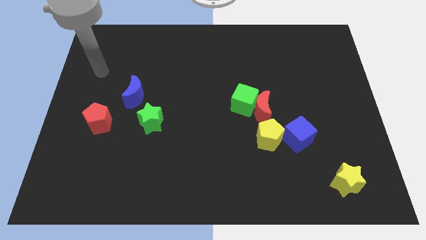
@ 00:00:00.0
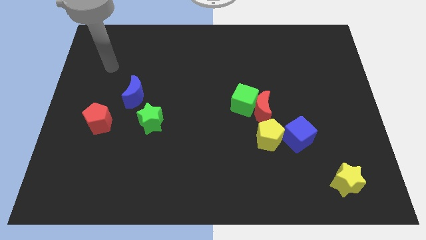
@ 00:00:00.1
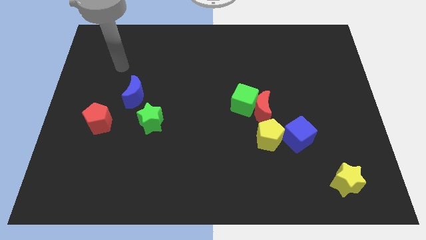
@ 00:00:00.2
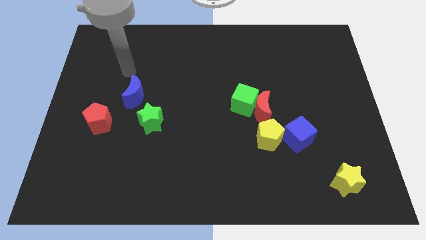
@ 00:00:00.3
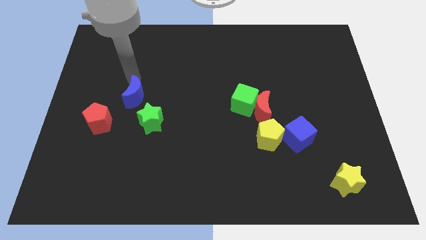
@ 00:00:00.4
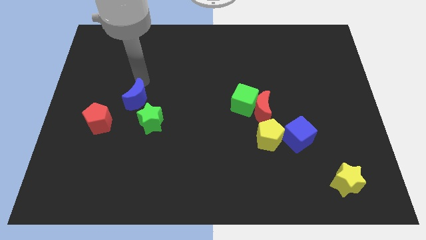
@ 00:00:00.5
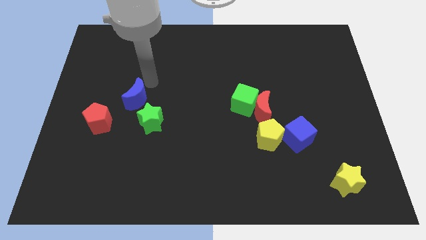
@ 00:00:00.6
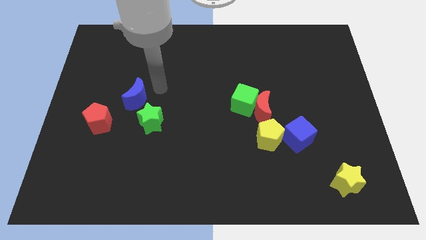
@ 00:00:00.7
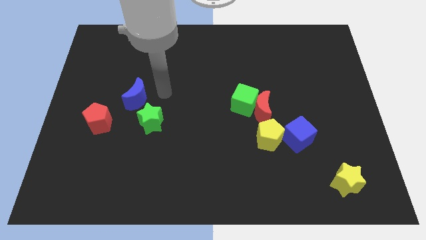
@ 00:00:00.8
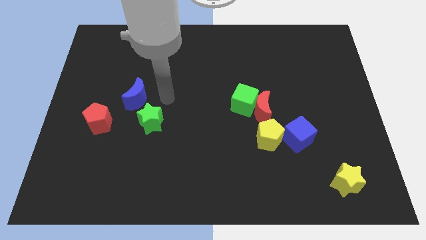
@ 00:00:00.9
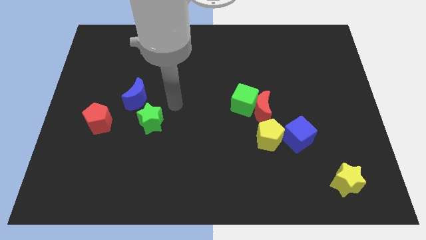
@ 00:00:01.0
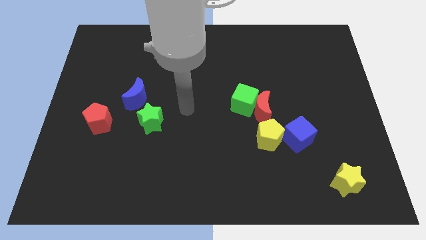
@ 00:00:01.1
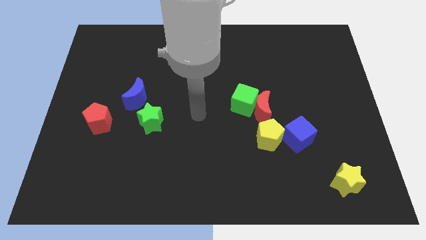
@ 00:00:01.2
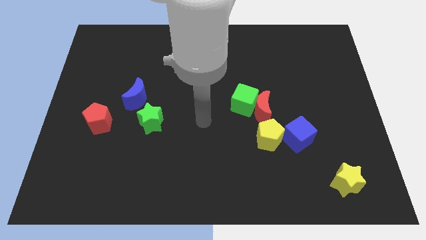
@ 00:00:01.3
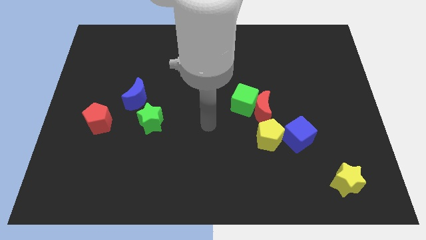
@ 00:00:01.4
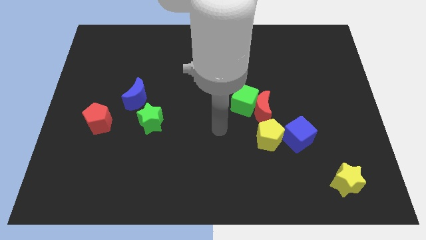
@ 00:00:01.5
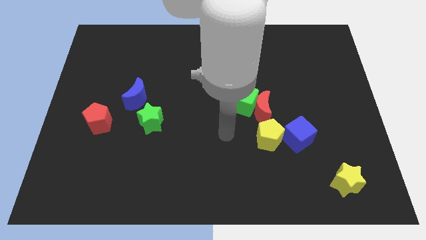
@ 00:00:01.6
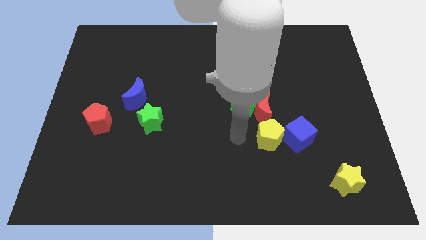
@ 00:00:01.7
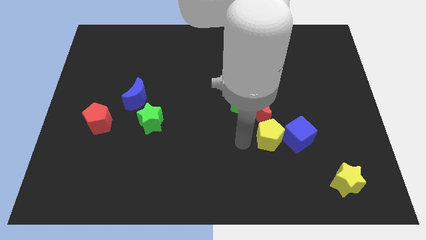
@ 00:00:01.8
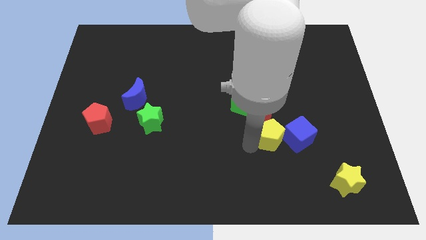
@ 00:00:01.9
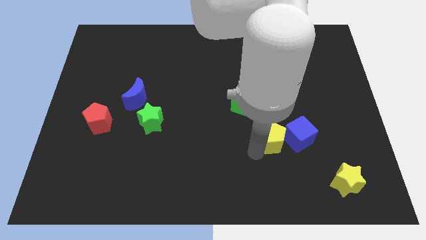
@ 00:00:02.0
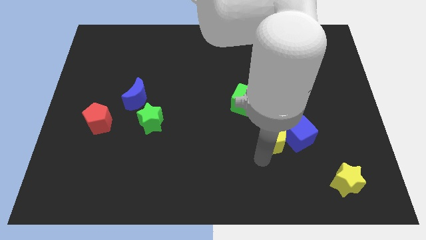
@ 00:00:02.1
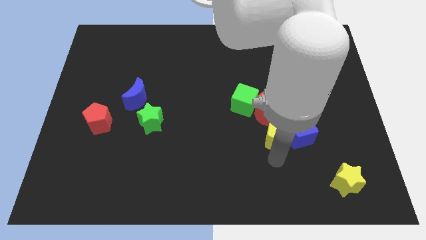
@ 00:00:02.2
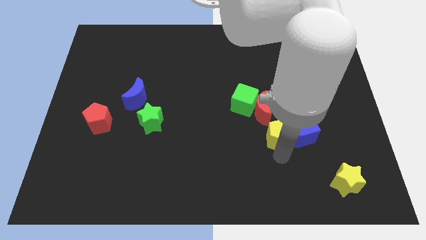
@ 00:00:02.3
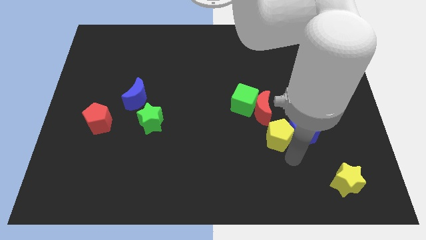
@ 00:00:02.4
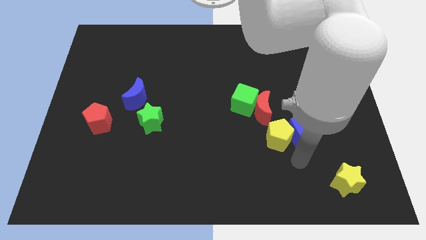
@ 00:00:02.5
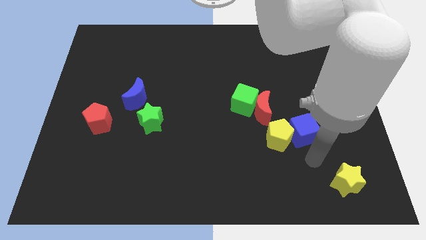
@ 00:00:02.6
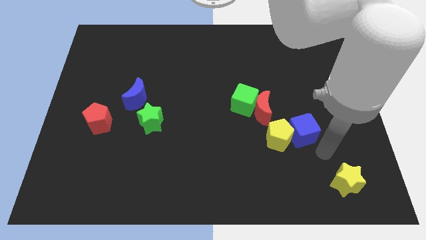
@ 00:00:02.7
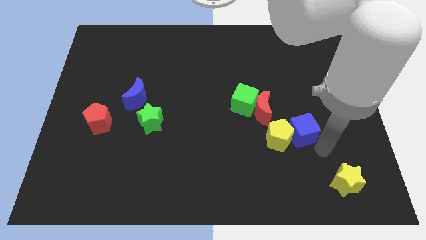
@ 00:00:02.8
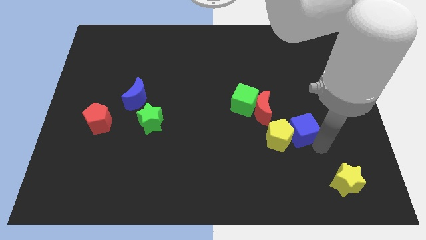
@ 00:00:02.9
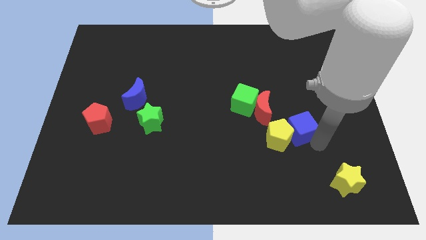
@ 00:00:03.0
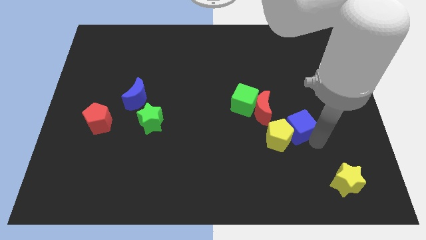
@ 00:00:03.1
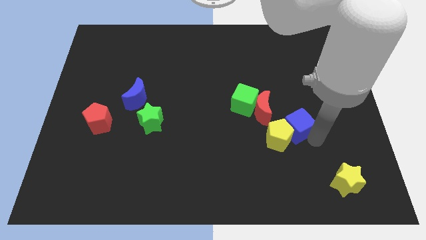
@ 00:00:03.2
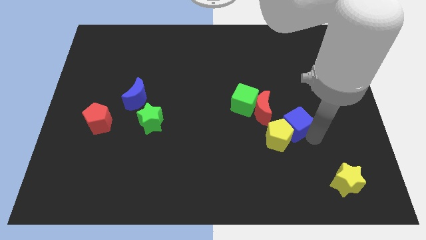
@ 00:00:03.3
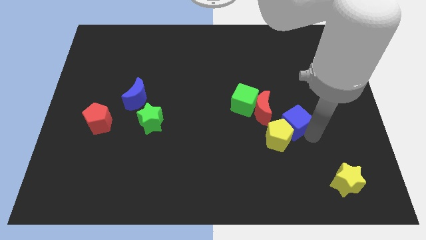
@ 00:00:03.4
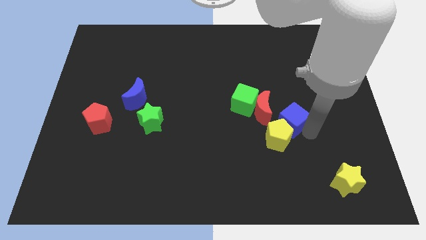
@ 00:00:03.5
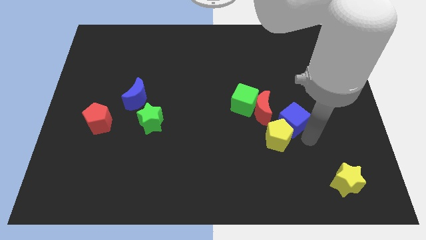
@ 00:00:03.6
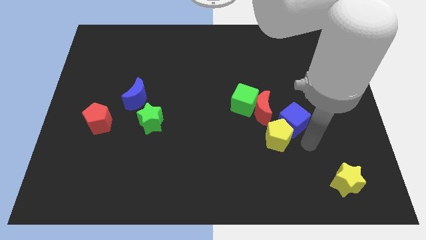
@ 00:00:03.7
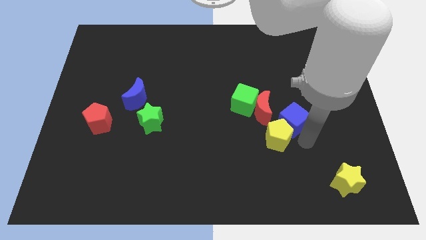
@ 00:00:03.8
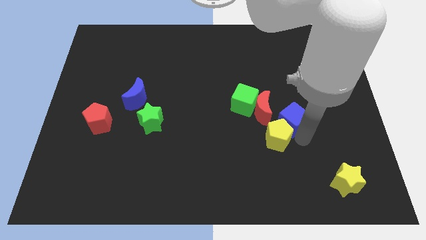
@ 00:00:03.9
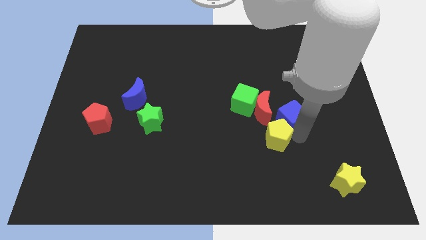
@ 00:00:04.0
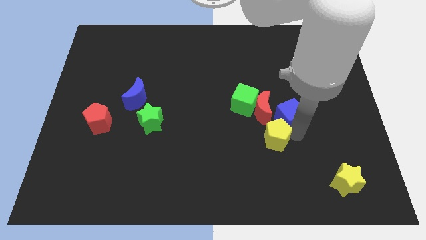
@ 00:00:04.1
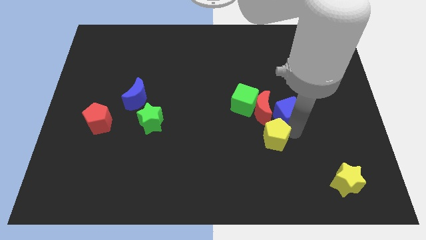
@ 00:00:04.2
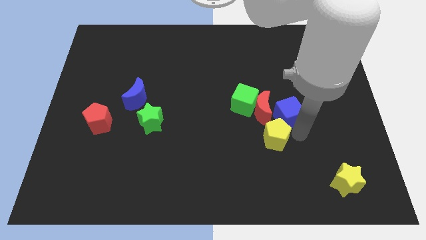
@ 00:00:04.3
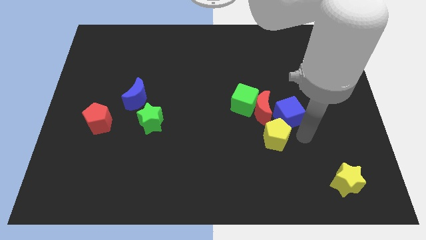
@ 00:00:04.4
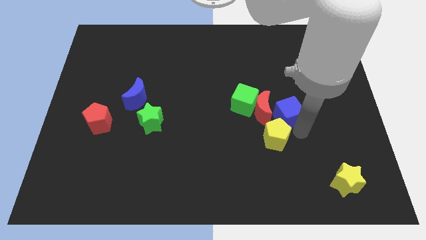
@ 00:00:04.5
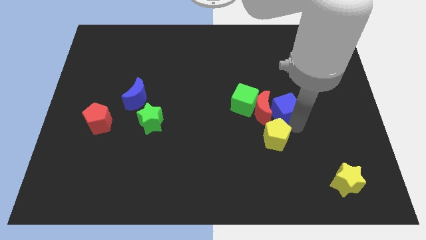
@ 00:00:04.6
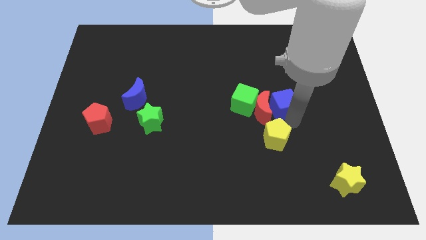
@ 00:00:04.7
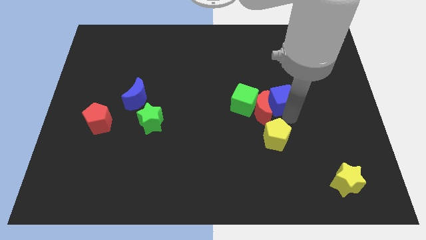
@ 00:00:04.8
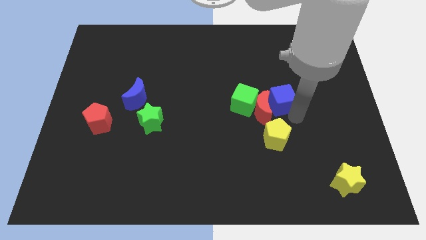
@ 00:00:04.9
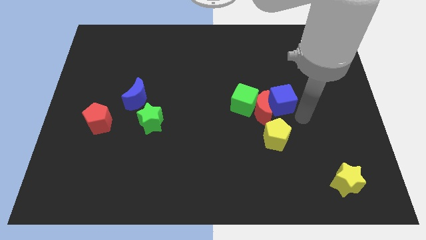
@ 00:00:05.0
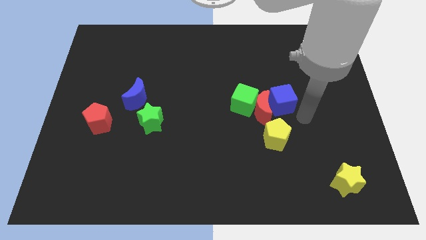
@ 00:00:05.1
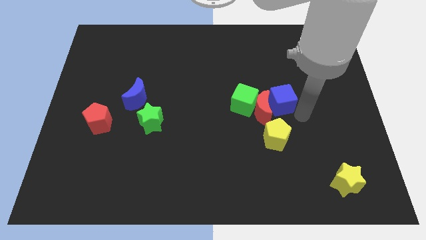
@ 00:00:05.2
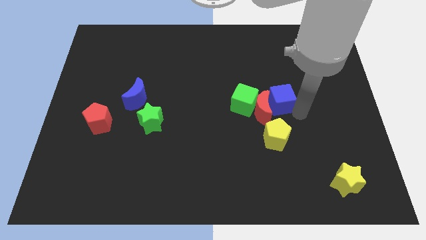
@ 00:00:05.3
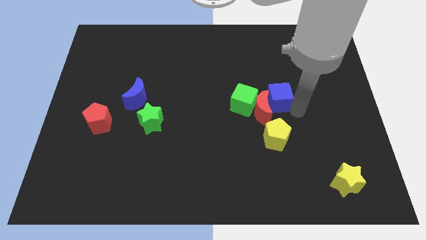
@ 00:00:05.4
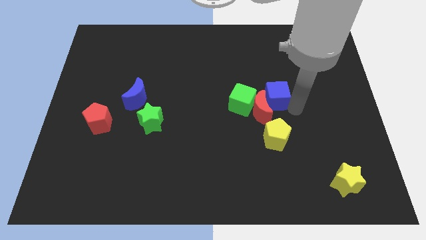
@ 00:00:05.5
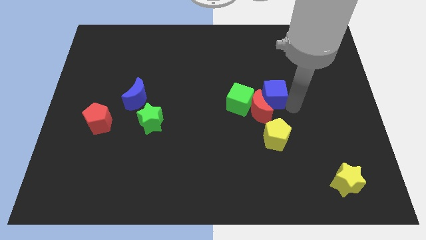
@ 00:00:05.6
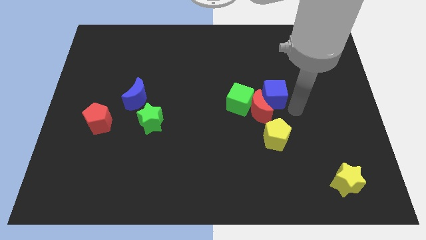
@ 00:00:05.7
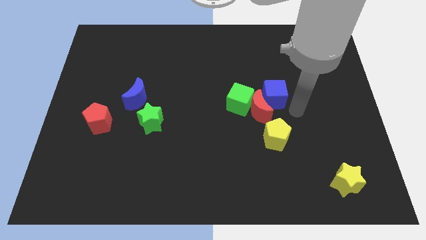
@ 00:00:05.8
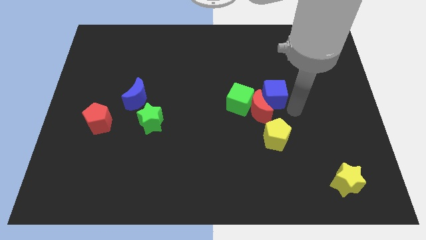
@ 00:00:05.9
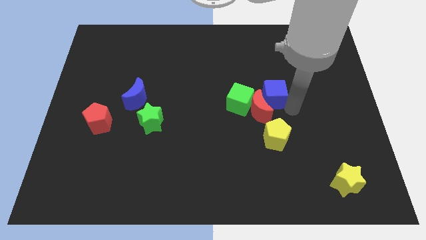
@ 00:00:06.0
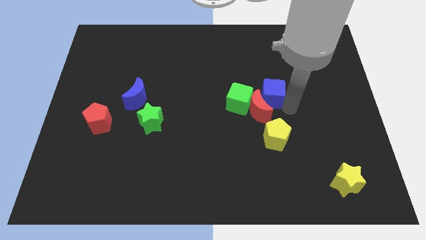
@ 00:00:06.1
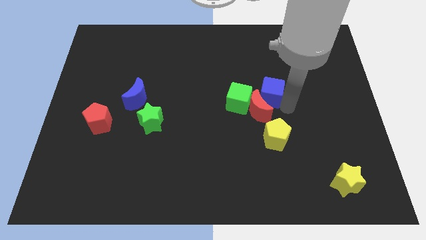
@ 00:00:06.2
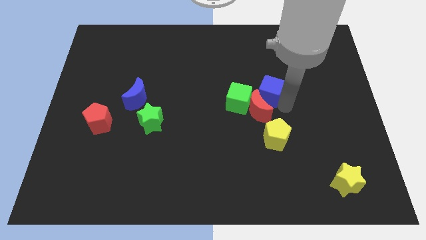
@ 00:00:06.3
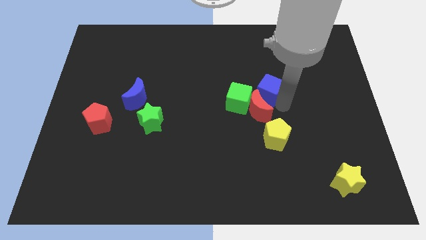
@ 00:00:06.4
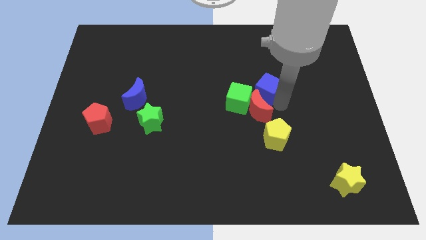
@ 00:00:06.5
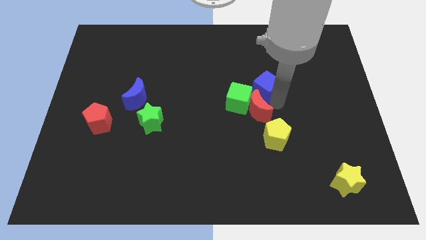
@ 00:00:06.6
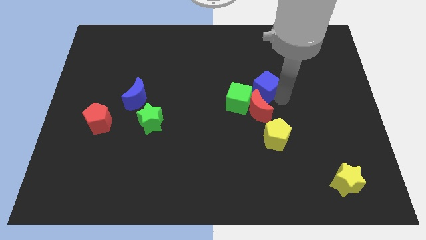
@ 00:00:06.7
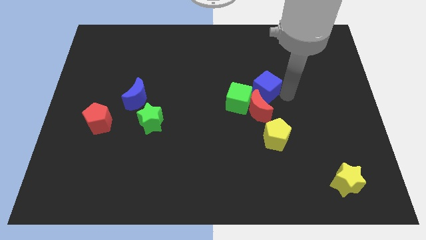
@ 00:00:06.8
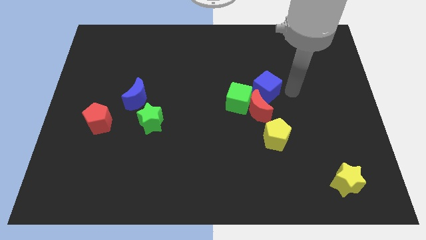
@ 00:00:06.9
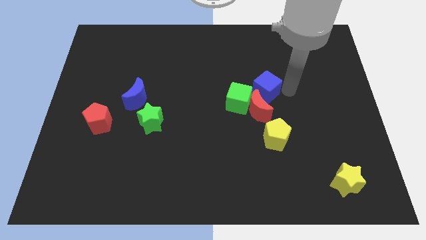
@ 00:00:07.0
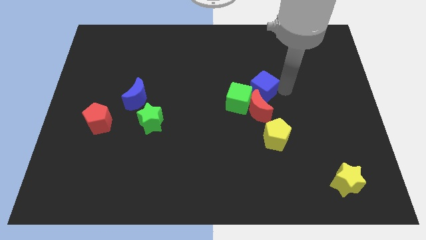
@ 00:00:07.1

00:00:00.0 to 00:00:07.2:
slide the blue cube to the center
